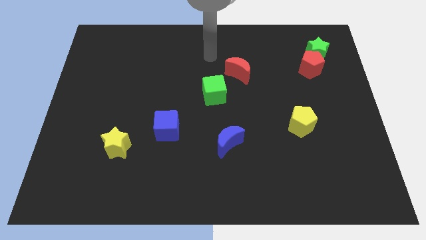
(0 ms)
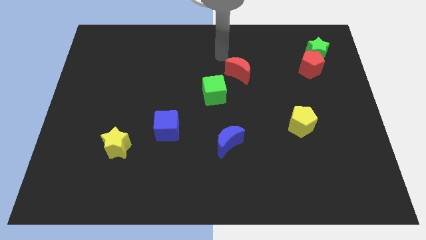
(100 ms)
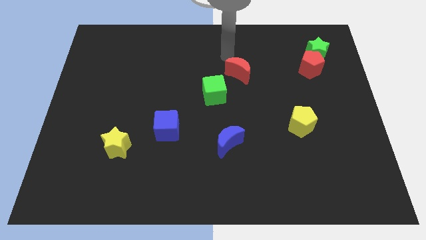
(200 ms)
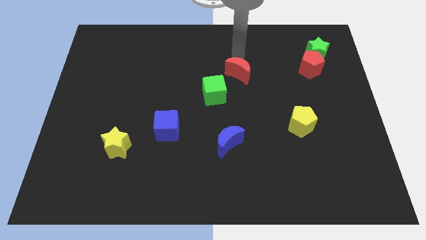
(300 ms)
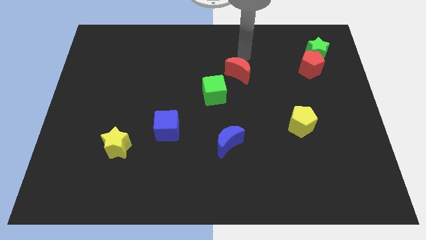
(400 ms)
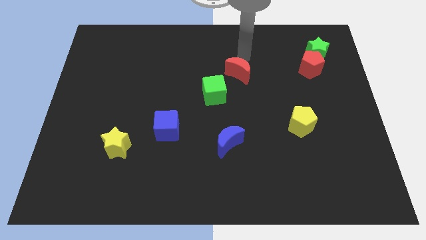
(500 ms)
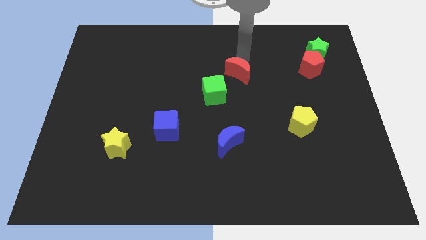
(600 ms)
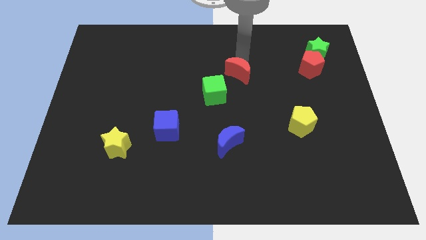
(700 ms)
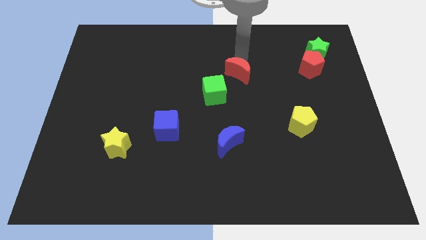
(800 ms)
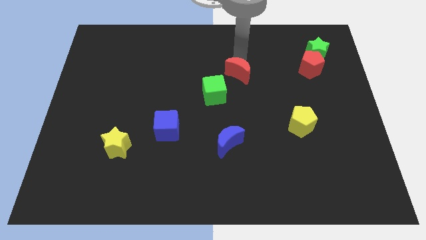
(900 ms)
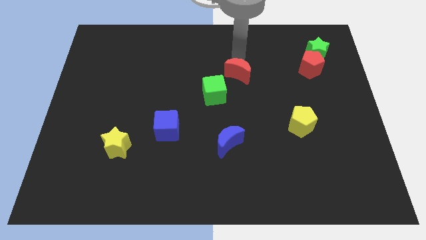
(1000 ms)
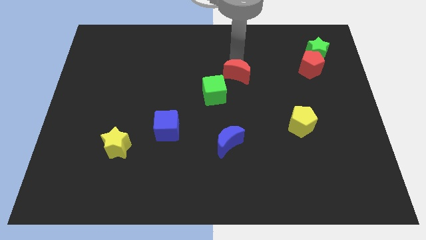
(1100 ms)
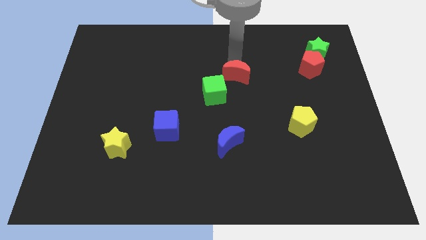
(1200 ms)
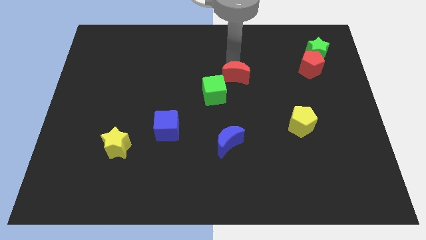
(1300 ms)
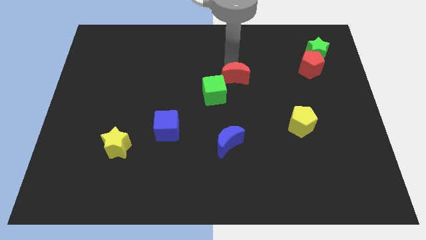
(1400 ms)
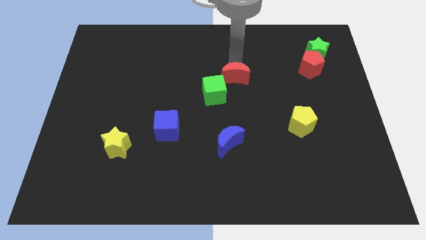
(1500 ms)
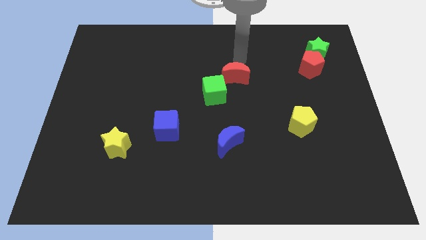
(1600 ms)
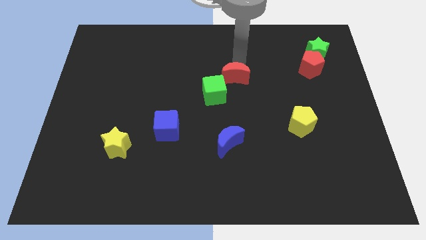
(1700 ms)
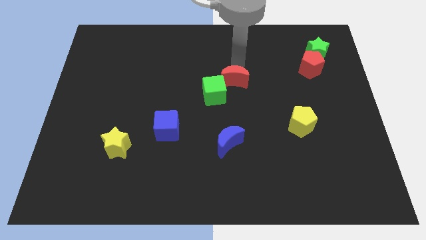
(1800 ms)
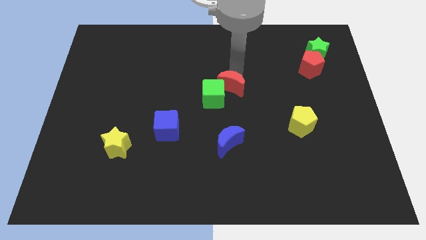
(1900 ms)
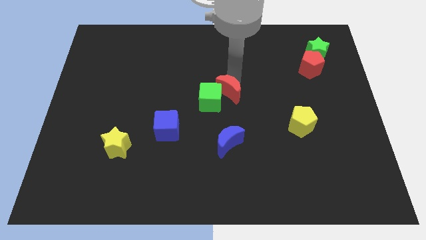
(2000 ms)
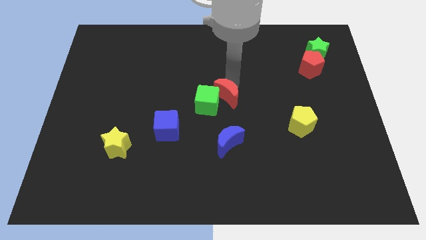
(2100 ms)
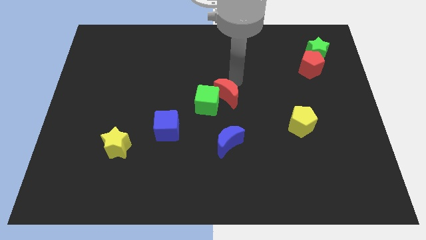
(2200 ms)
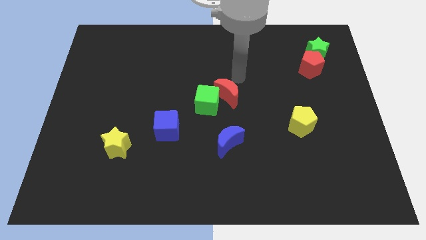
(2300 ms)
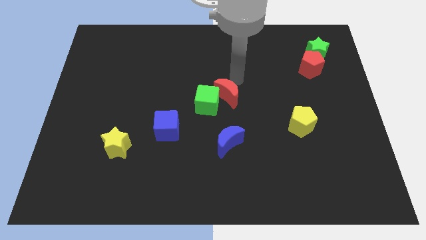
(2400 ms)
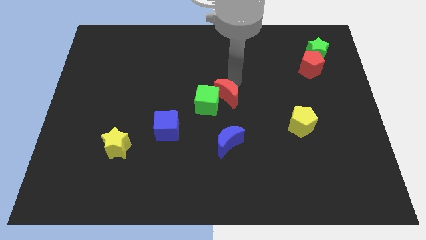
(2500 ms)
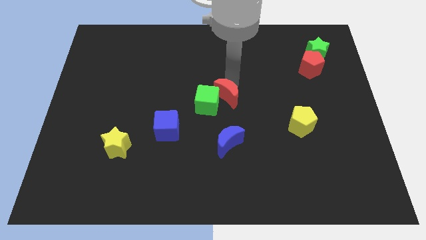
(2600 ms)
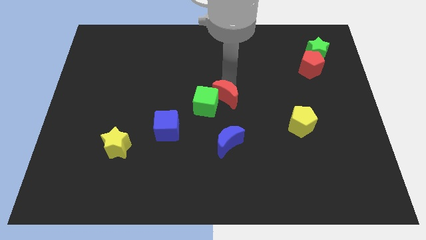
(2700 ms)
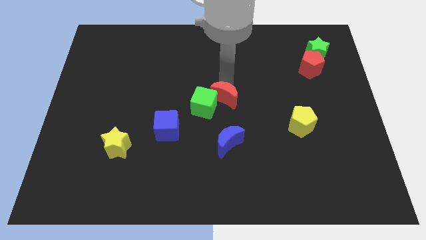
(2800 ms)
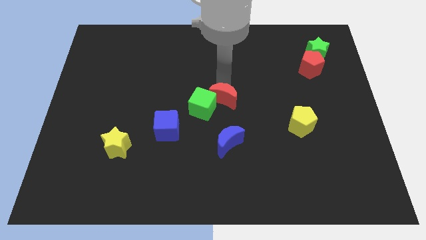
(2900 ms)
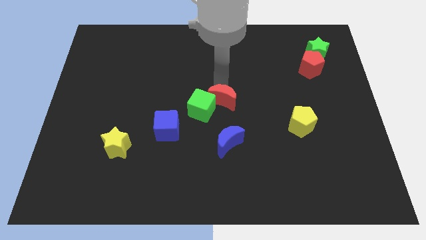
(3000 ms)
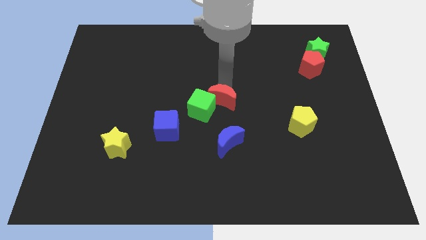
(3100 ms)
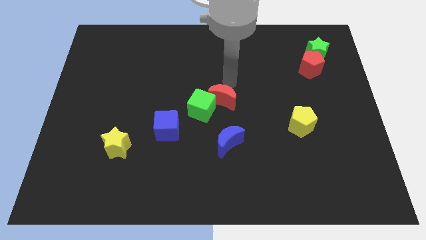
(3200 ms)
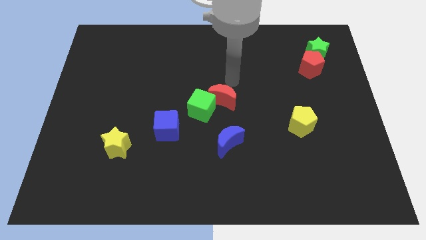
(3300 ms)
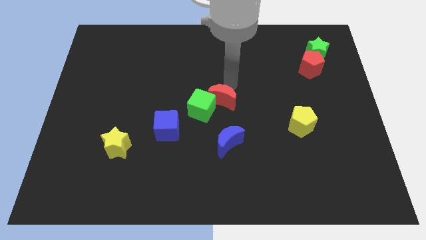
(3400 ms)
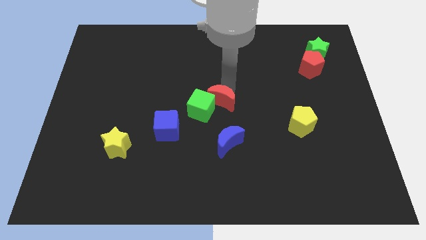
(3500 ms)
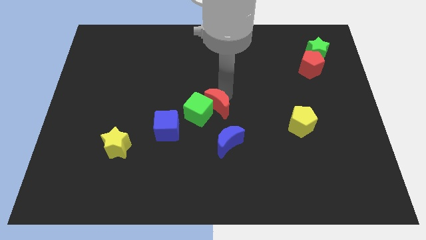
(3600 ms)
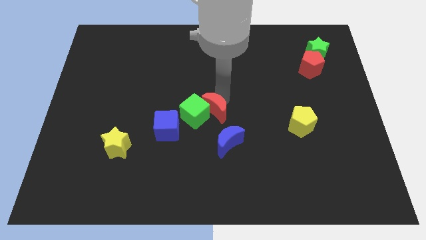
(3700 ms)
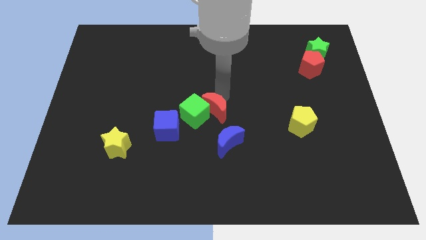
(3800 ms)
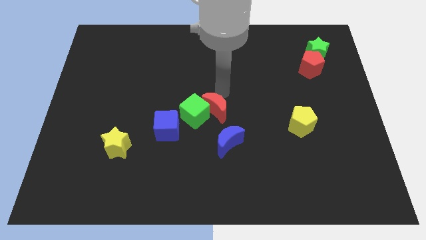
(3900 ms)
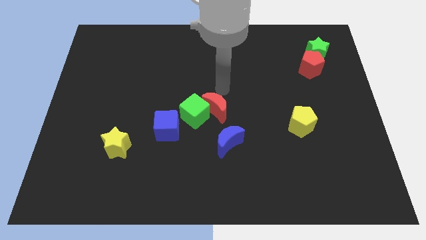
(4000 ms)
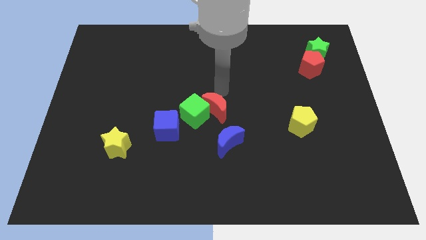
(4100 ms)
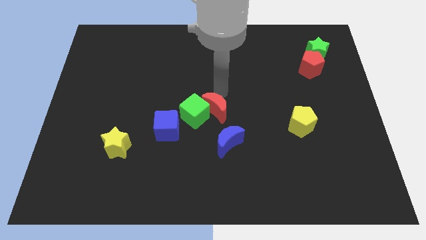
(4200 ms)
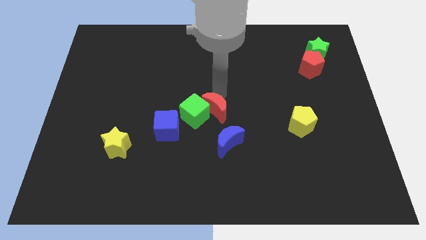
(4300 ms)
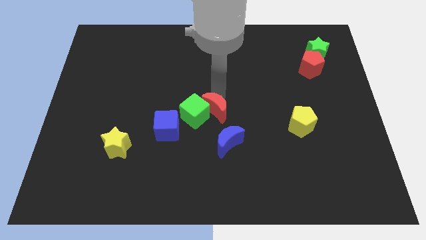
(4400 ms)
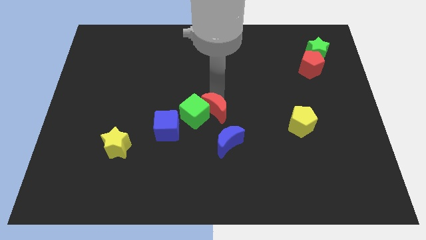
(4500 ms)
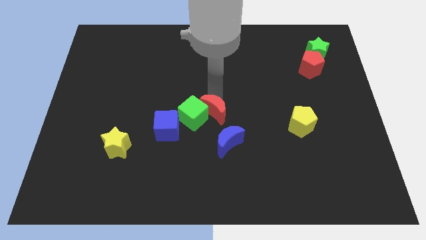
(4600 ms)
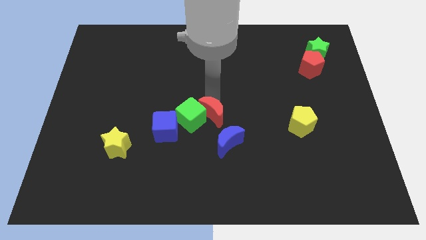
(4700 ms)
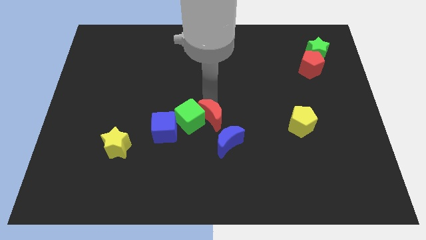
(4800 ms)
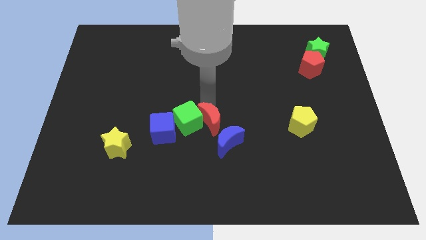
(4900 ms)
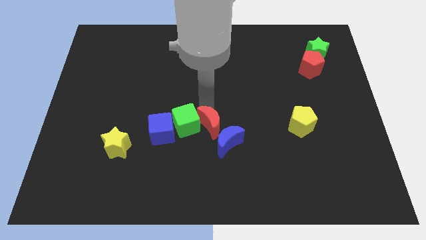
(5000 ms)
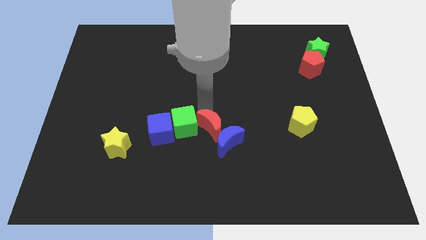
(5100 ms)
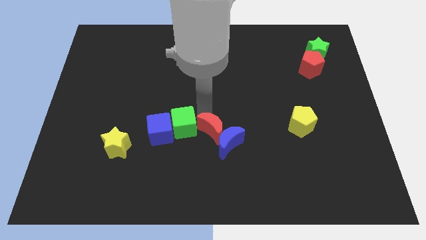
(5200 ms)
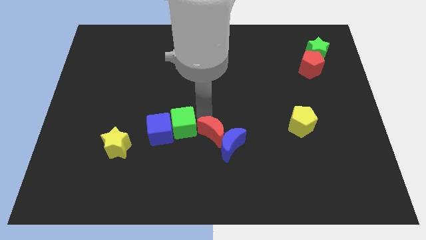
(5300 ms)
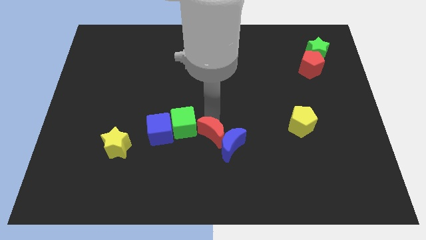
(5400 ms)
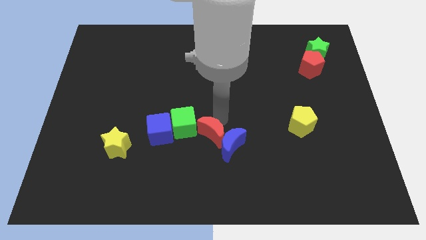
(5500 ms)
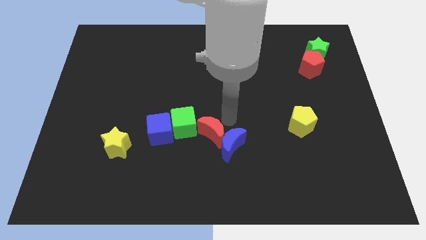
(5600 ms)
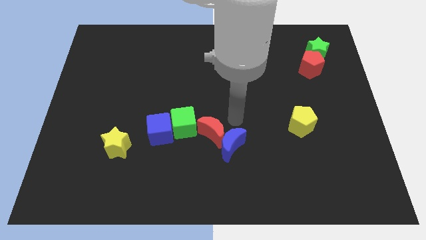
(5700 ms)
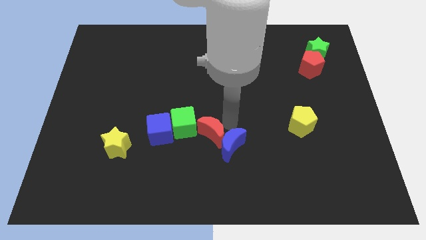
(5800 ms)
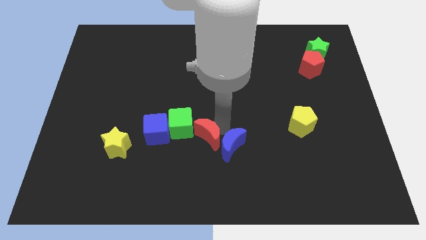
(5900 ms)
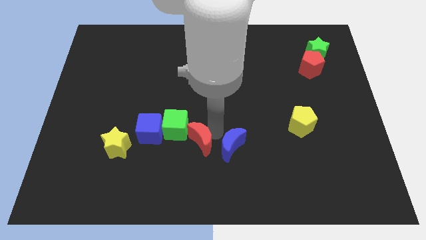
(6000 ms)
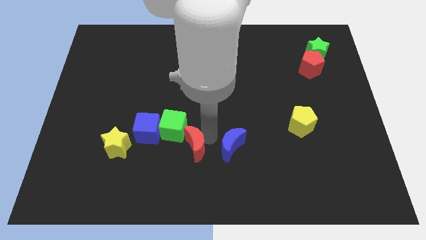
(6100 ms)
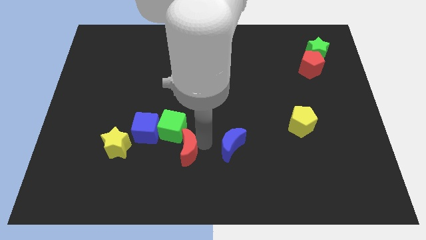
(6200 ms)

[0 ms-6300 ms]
move the red moon to the bottom right of the blue cube

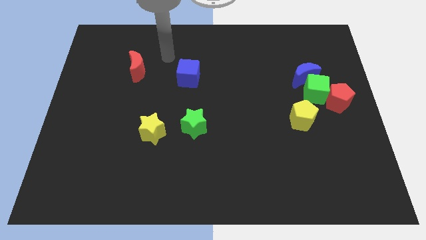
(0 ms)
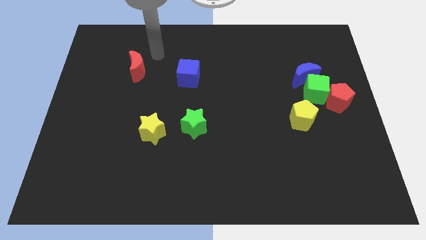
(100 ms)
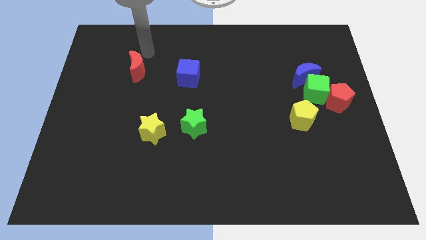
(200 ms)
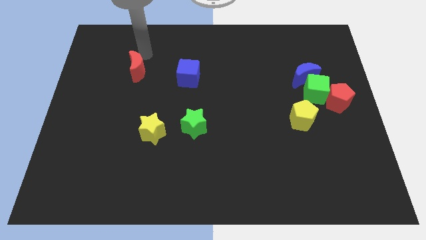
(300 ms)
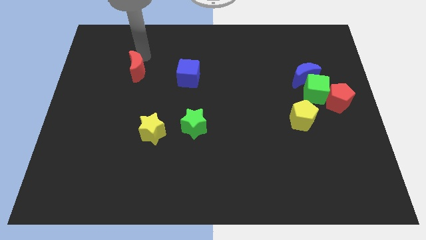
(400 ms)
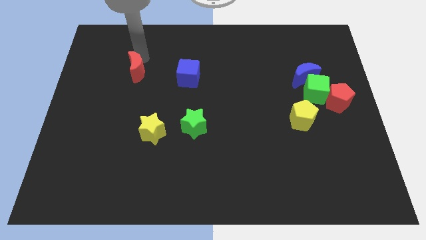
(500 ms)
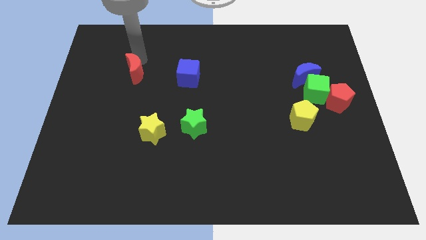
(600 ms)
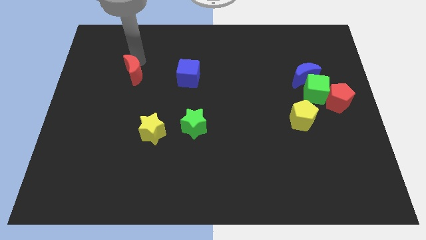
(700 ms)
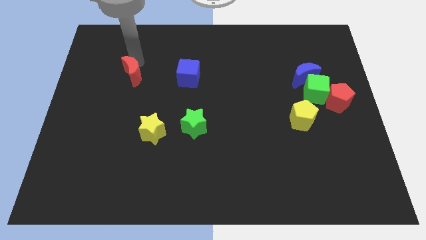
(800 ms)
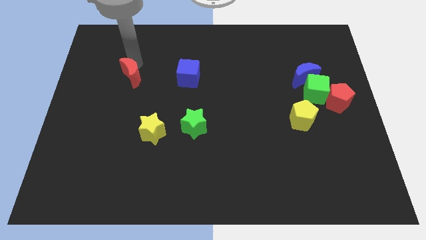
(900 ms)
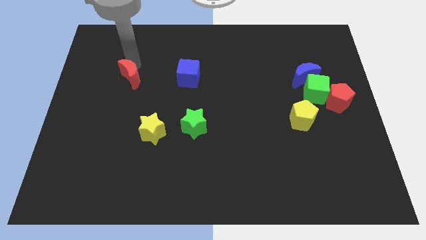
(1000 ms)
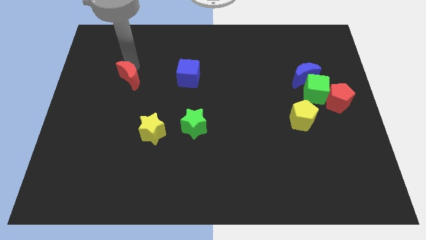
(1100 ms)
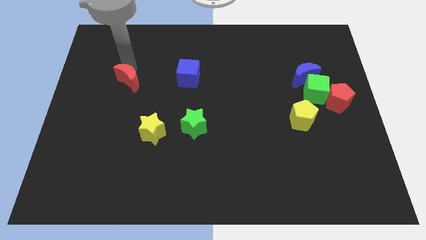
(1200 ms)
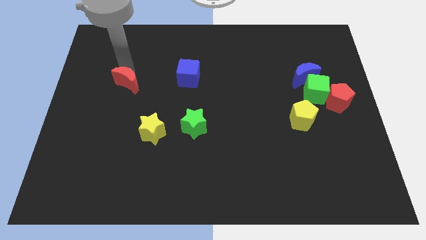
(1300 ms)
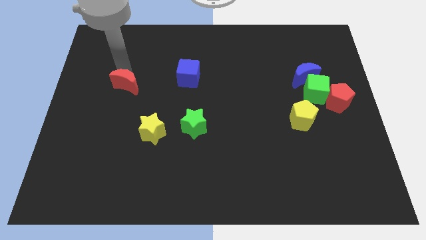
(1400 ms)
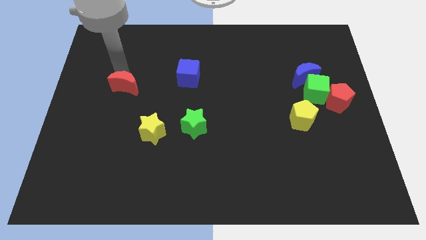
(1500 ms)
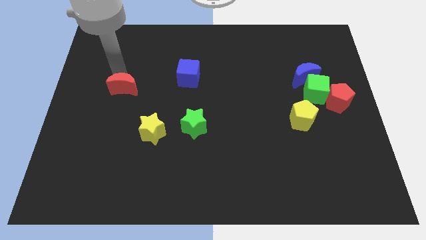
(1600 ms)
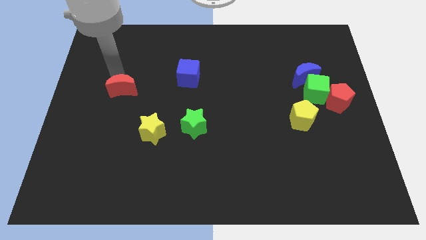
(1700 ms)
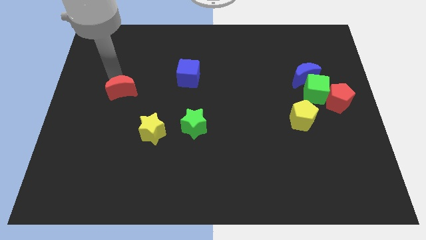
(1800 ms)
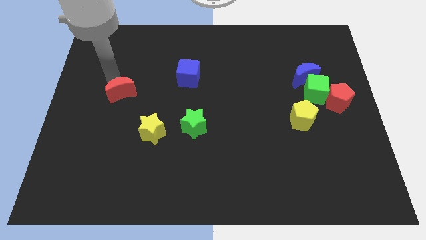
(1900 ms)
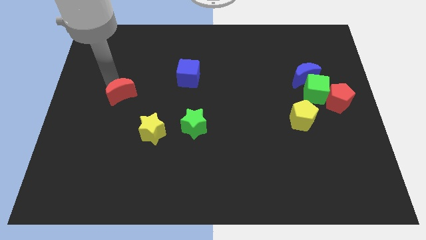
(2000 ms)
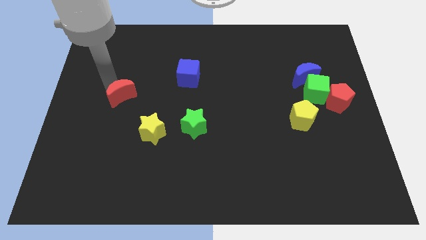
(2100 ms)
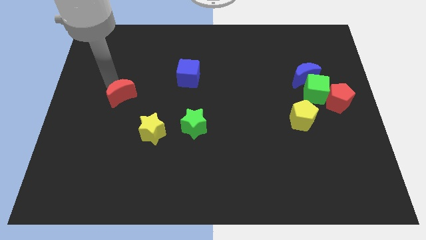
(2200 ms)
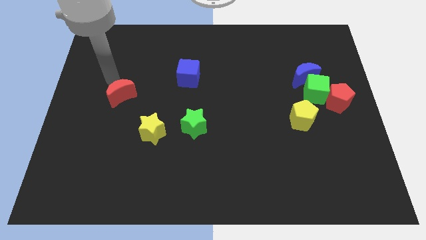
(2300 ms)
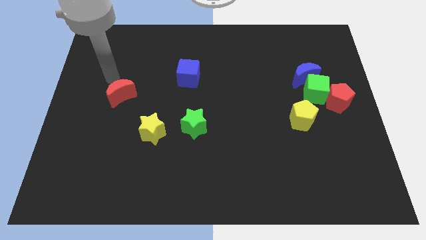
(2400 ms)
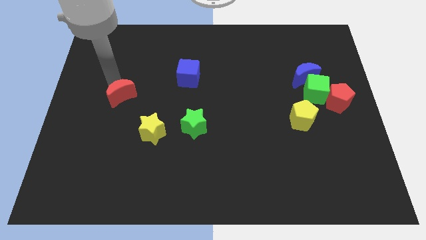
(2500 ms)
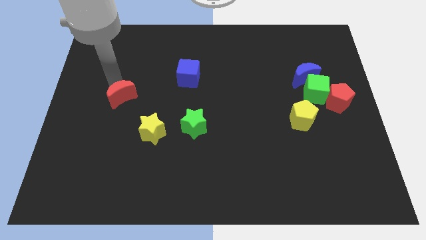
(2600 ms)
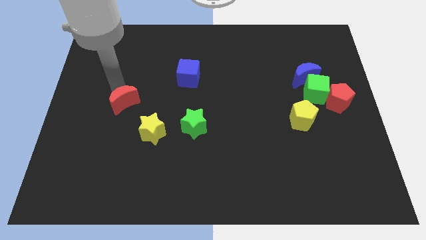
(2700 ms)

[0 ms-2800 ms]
slide the red moon to the top left of the yellow star
